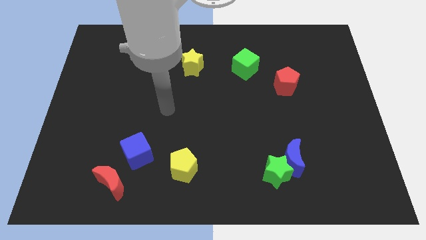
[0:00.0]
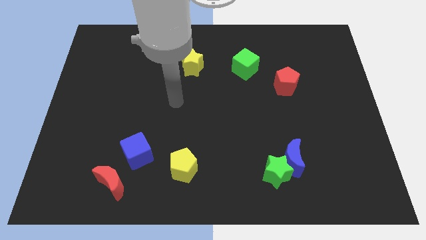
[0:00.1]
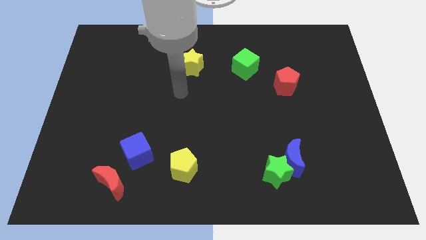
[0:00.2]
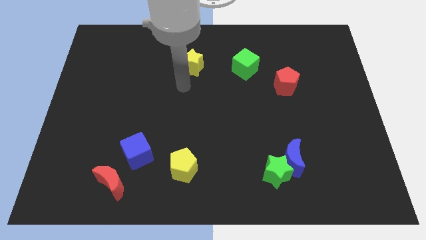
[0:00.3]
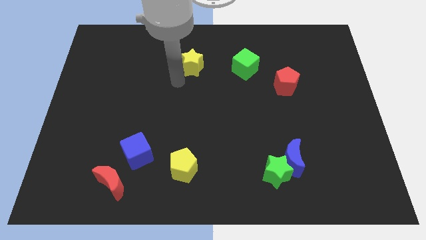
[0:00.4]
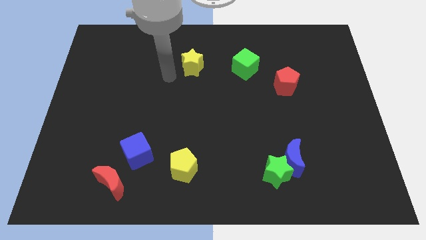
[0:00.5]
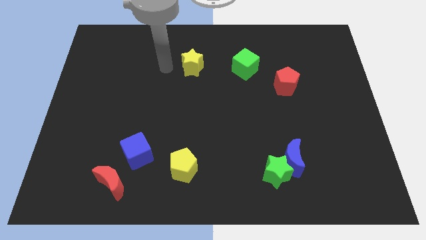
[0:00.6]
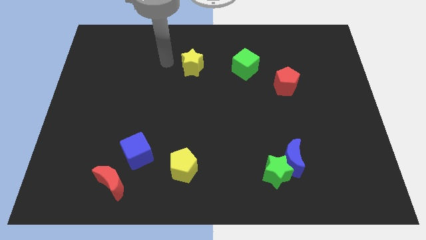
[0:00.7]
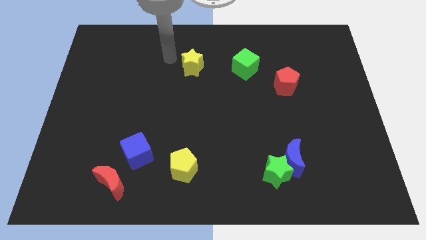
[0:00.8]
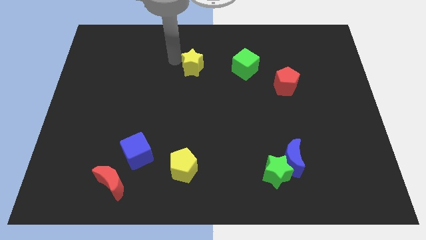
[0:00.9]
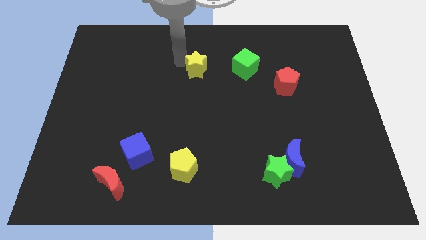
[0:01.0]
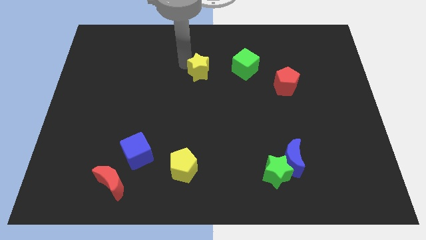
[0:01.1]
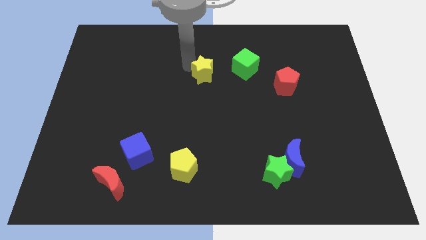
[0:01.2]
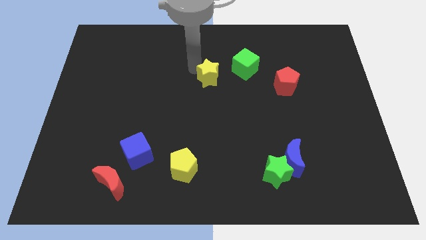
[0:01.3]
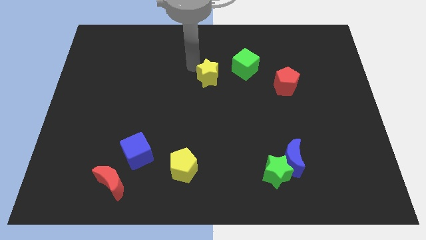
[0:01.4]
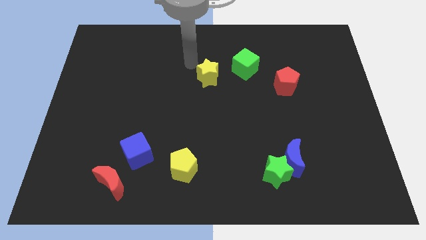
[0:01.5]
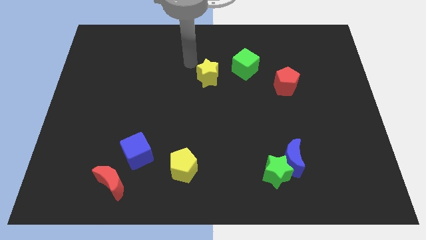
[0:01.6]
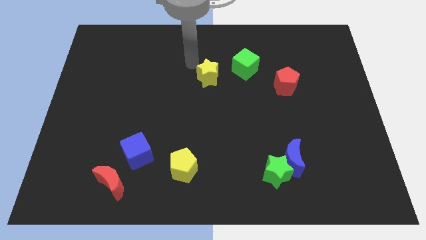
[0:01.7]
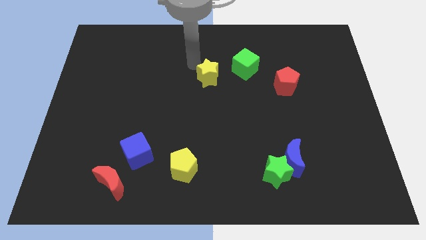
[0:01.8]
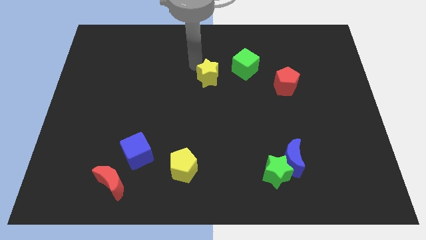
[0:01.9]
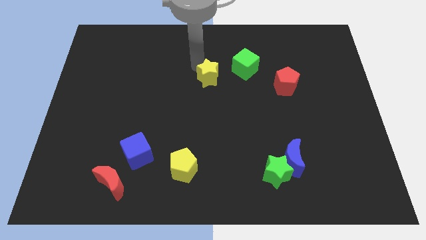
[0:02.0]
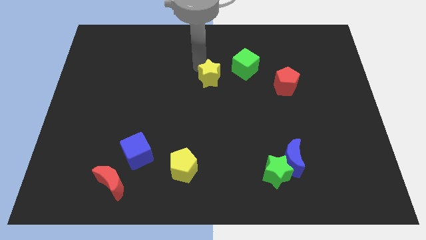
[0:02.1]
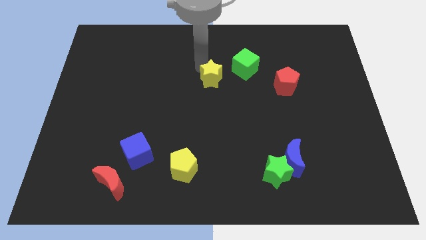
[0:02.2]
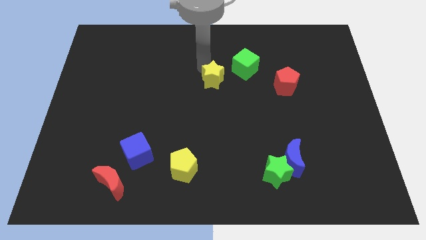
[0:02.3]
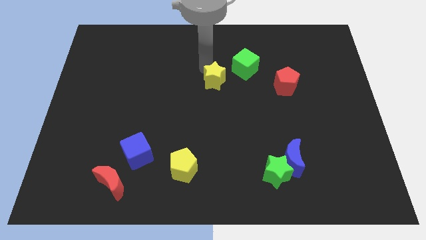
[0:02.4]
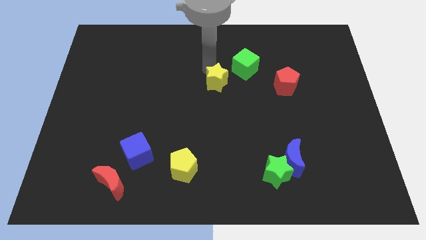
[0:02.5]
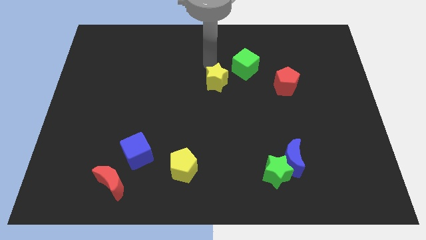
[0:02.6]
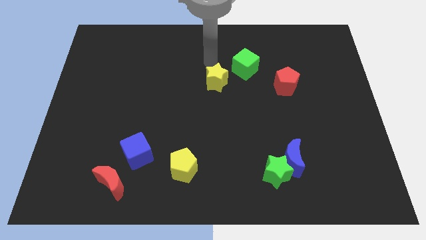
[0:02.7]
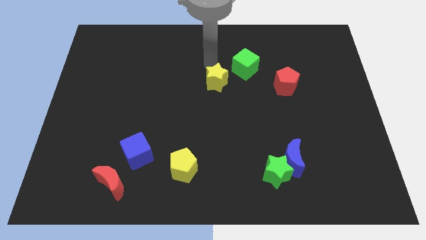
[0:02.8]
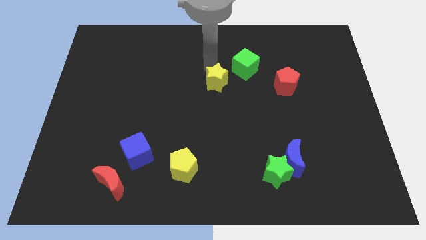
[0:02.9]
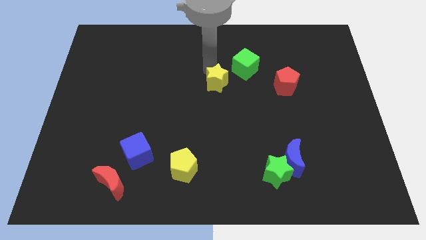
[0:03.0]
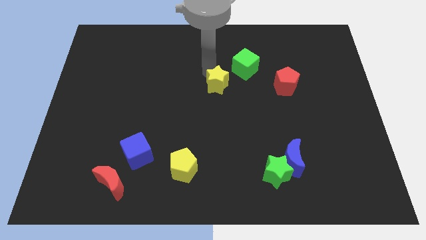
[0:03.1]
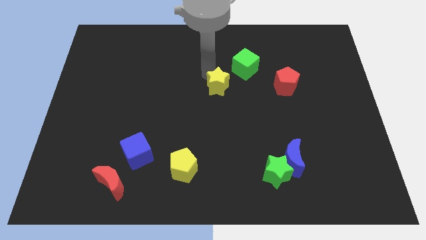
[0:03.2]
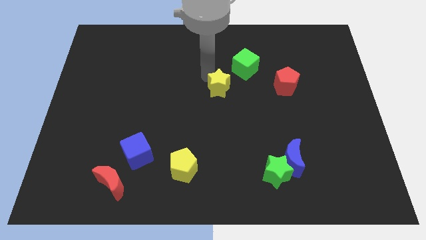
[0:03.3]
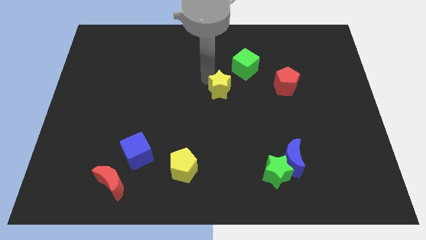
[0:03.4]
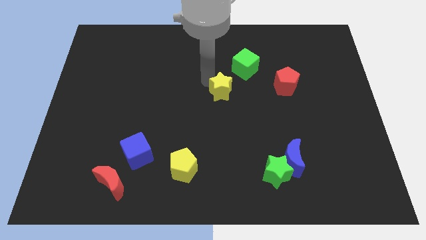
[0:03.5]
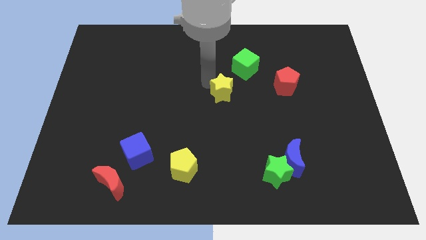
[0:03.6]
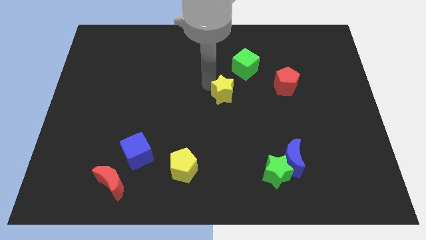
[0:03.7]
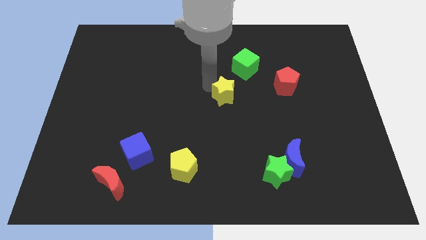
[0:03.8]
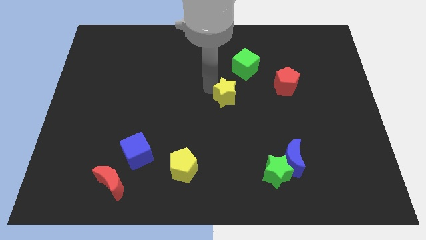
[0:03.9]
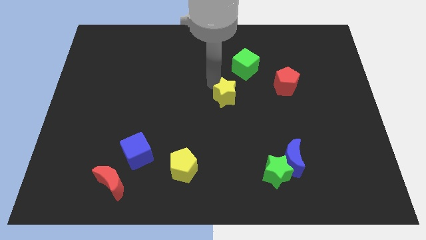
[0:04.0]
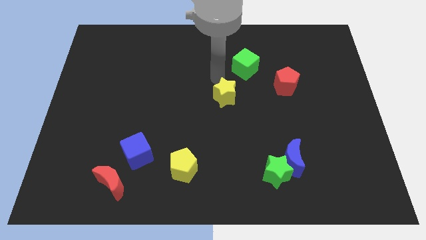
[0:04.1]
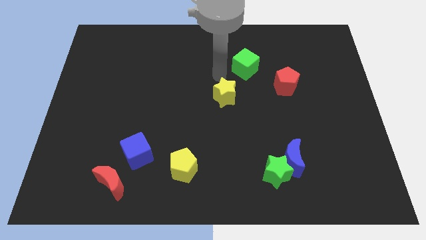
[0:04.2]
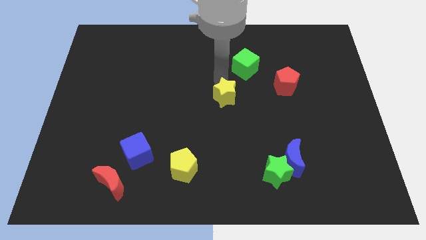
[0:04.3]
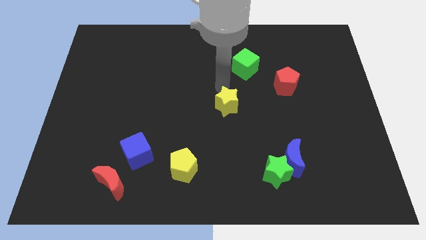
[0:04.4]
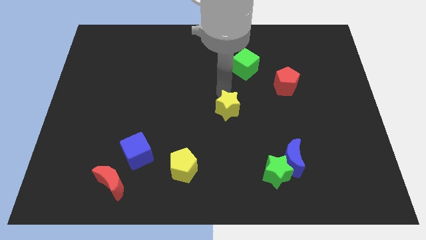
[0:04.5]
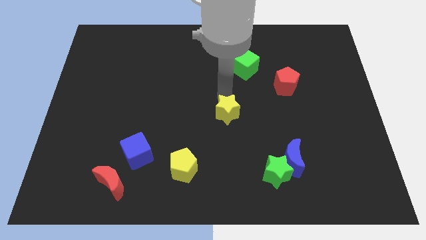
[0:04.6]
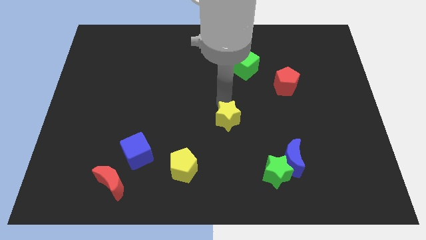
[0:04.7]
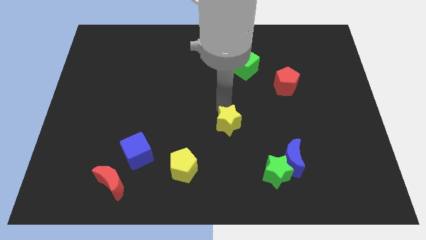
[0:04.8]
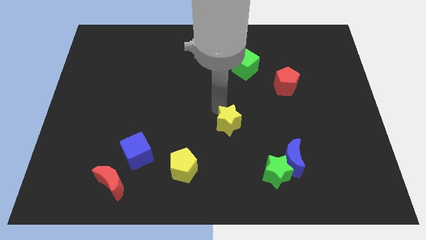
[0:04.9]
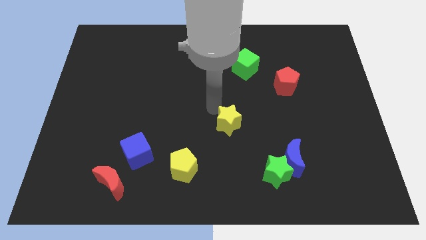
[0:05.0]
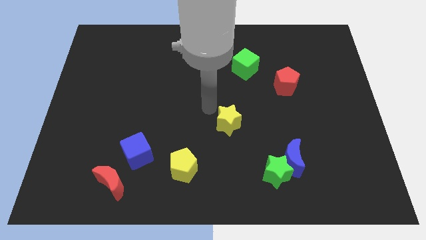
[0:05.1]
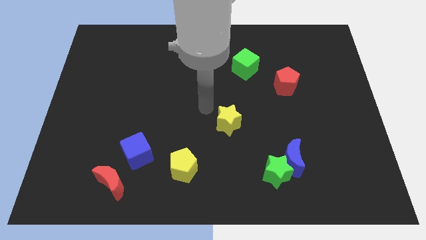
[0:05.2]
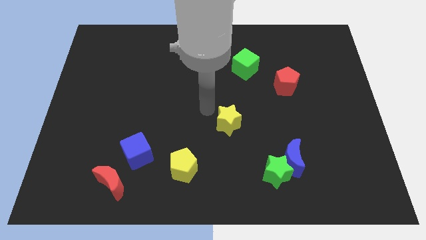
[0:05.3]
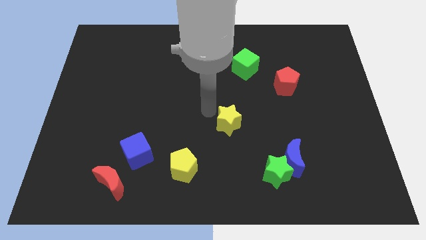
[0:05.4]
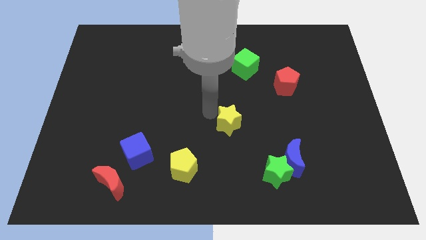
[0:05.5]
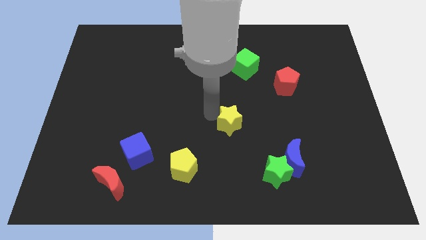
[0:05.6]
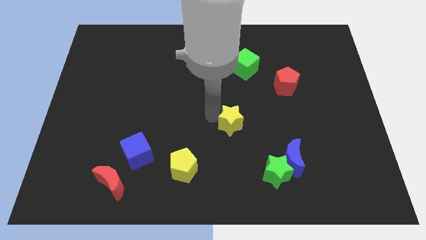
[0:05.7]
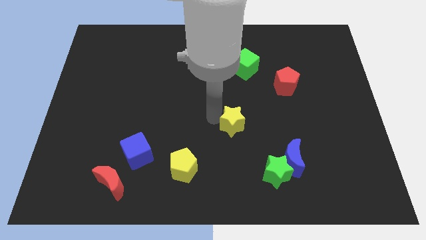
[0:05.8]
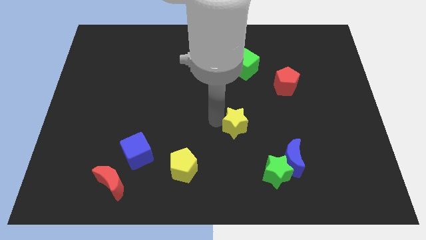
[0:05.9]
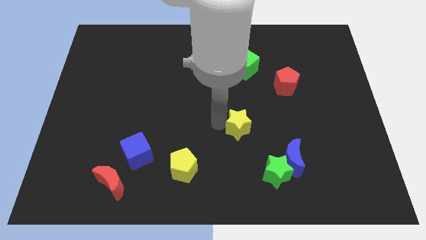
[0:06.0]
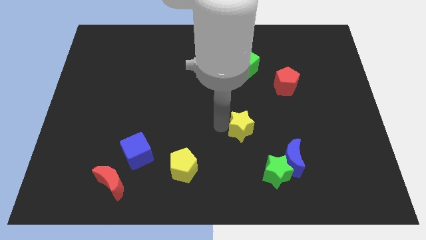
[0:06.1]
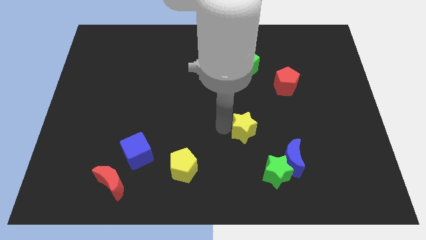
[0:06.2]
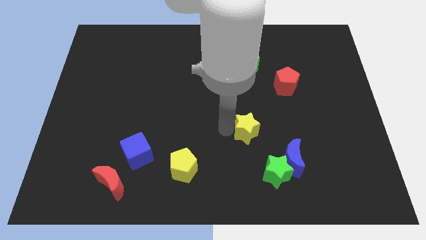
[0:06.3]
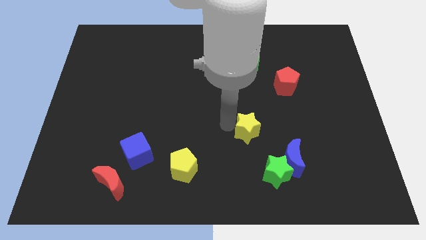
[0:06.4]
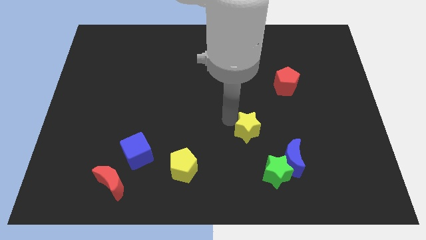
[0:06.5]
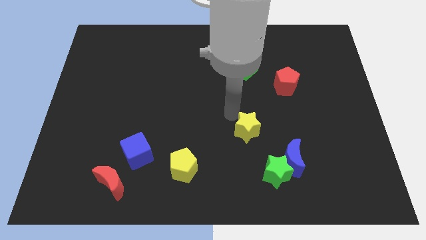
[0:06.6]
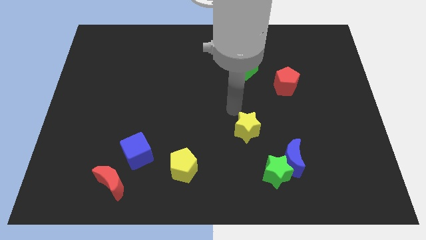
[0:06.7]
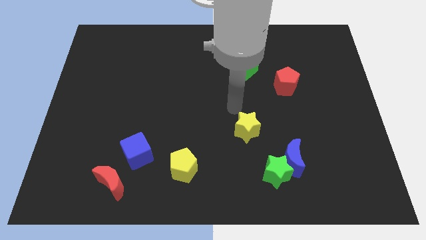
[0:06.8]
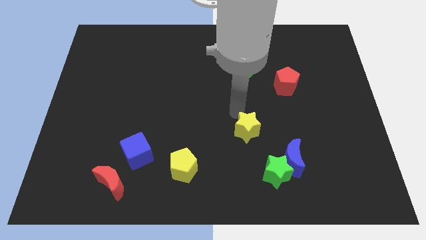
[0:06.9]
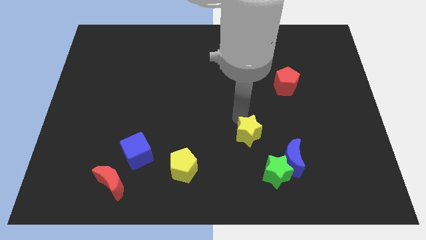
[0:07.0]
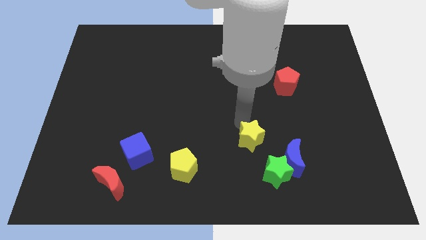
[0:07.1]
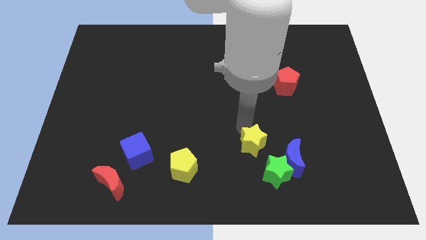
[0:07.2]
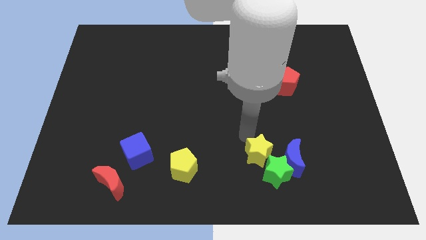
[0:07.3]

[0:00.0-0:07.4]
move the yellow star close to the green star

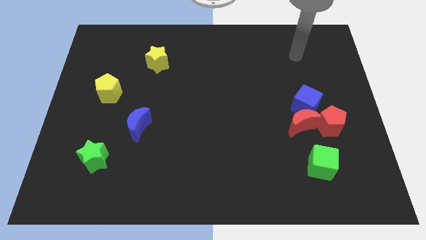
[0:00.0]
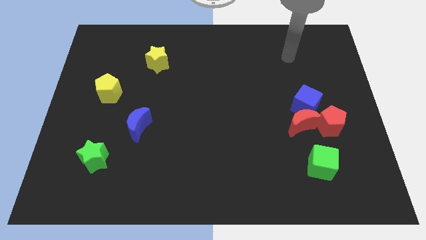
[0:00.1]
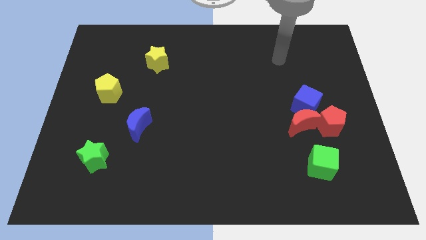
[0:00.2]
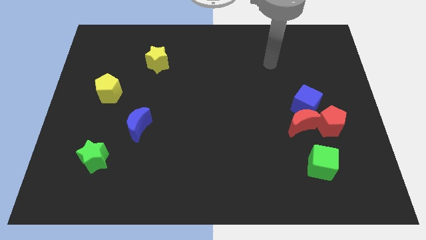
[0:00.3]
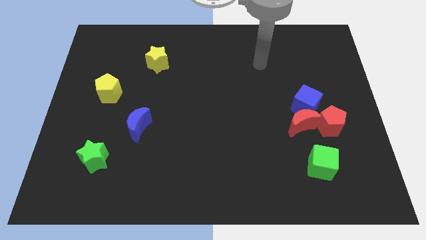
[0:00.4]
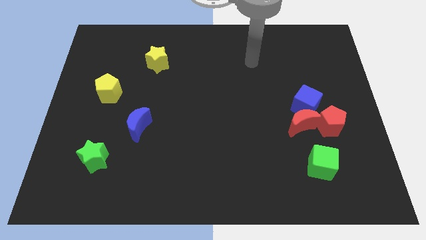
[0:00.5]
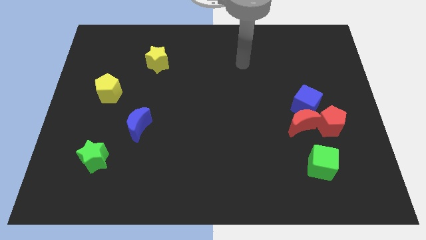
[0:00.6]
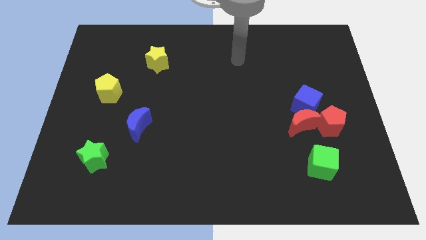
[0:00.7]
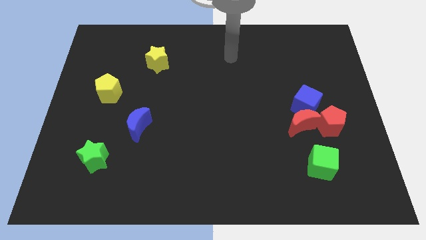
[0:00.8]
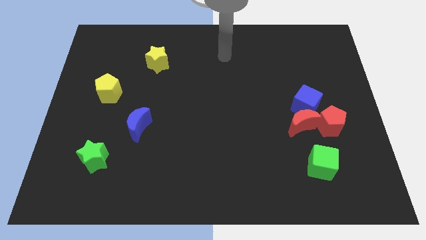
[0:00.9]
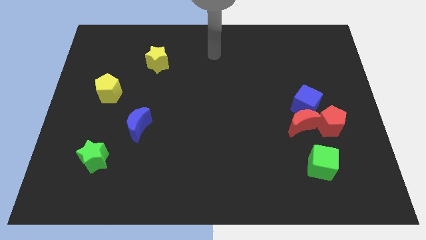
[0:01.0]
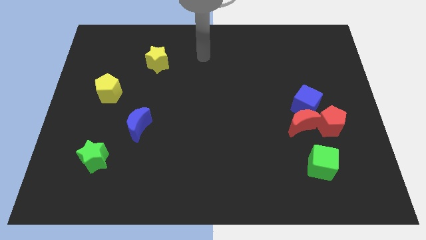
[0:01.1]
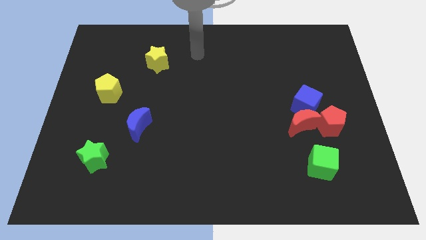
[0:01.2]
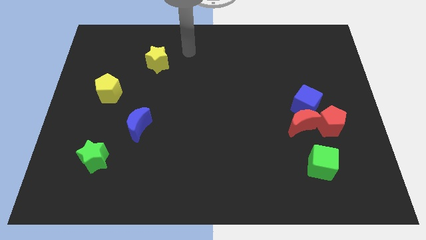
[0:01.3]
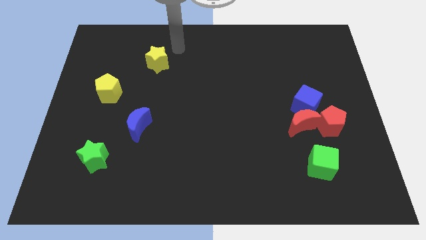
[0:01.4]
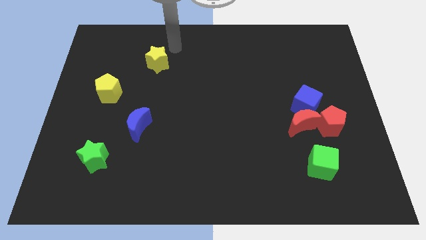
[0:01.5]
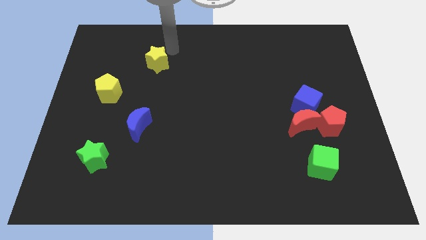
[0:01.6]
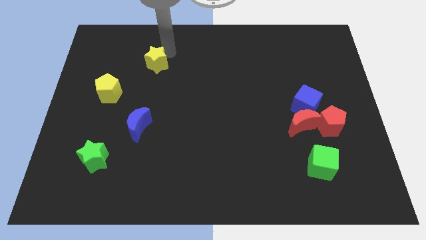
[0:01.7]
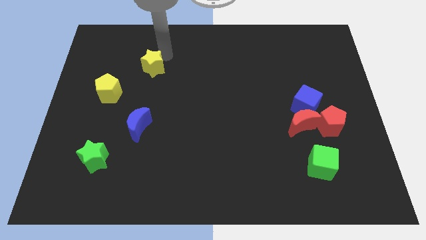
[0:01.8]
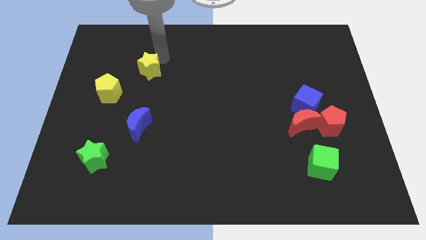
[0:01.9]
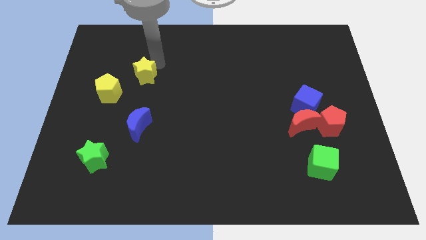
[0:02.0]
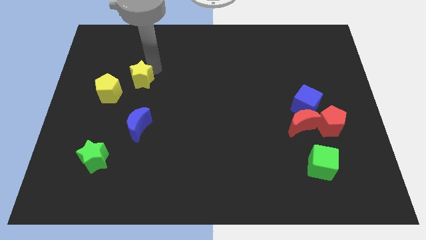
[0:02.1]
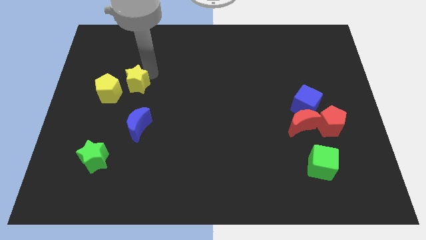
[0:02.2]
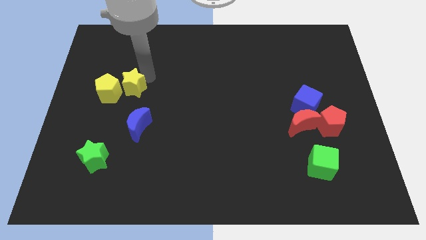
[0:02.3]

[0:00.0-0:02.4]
move the yellow star towards the yellow pentagon
